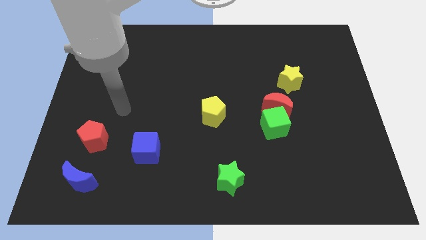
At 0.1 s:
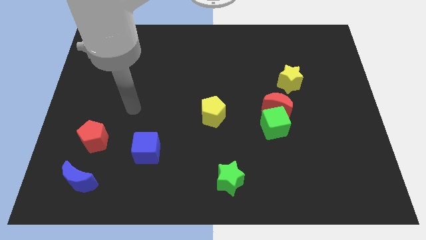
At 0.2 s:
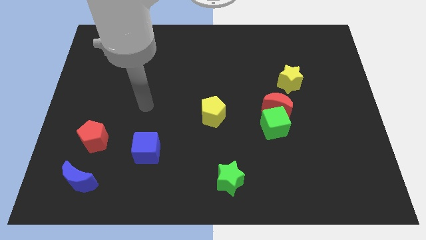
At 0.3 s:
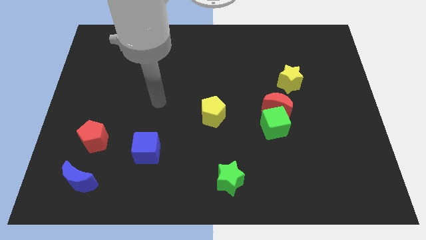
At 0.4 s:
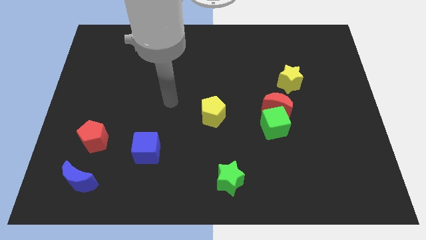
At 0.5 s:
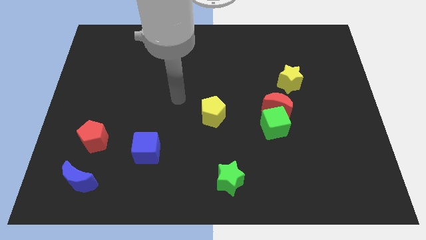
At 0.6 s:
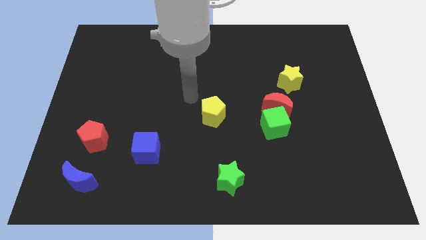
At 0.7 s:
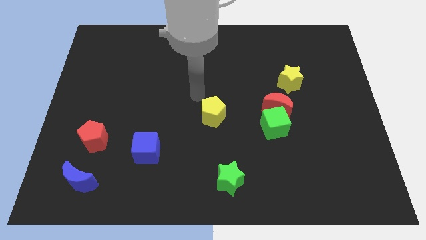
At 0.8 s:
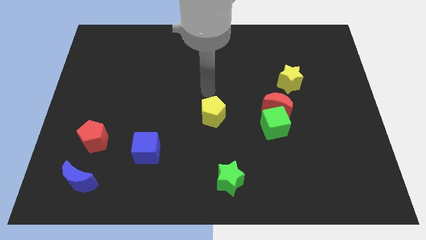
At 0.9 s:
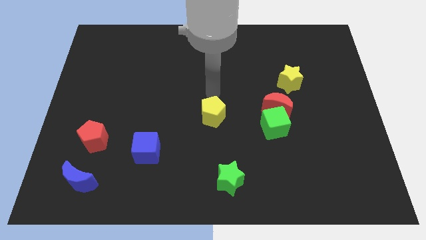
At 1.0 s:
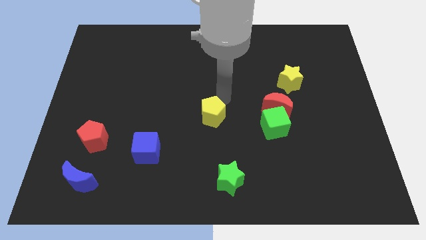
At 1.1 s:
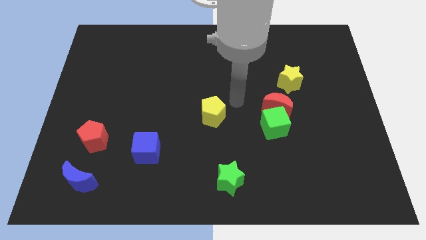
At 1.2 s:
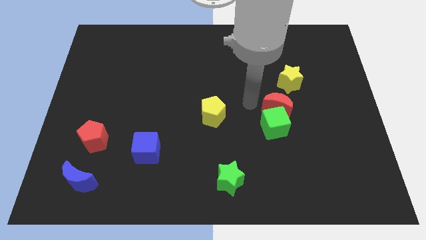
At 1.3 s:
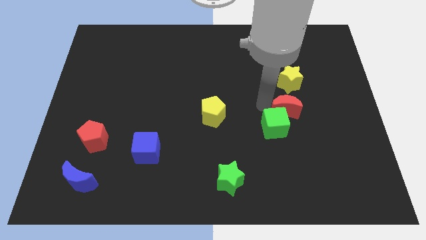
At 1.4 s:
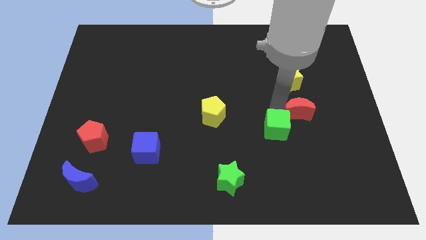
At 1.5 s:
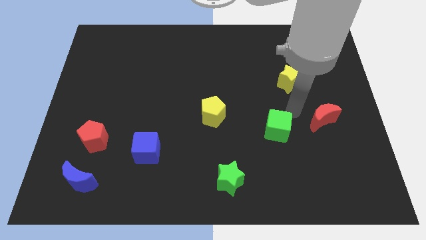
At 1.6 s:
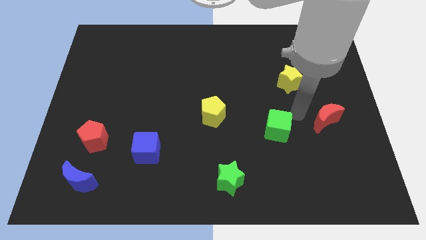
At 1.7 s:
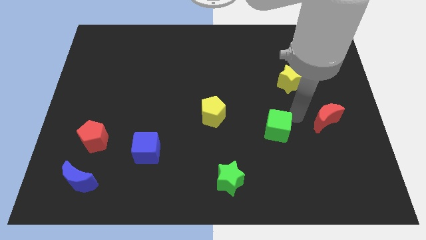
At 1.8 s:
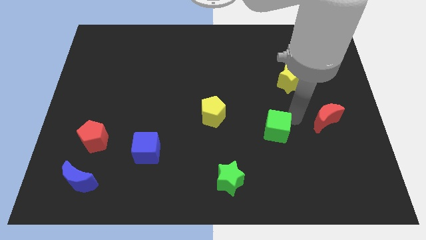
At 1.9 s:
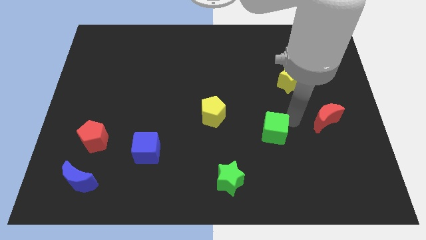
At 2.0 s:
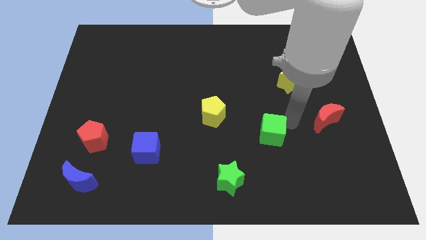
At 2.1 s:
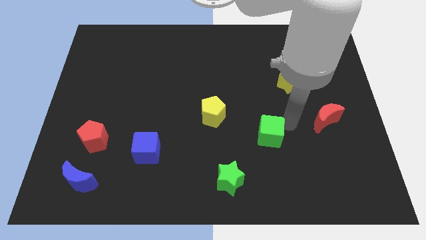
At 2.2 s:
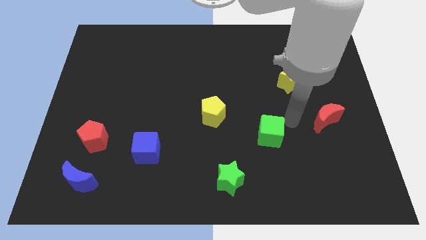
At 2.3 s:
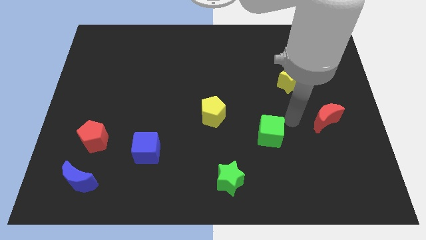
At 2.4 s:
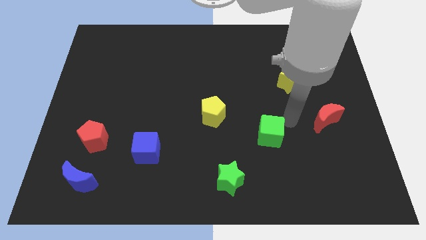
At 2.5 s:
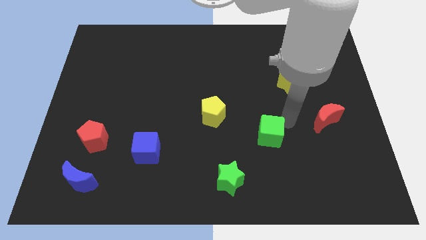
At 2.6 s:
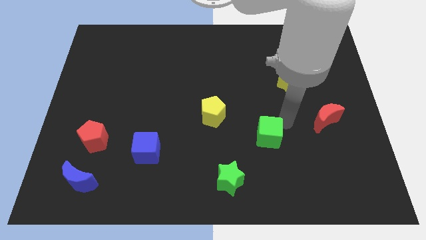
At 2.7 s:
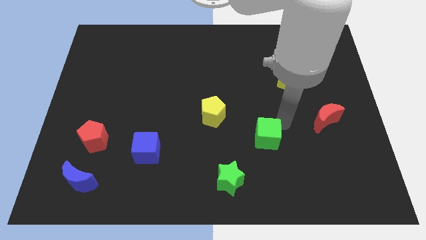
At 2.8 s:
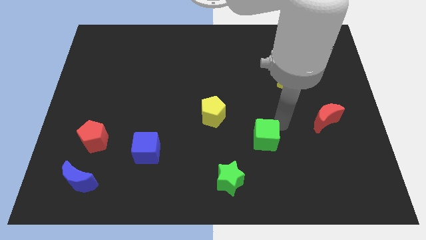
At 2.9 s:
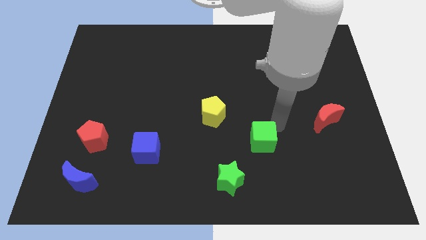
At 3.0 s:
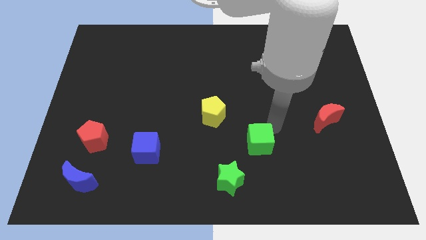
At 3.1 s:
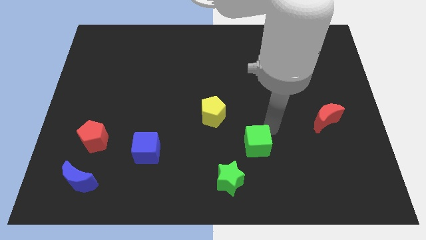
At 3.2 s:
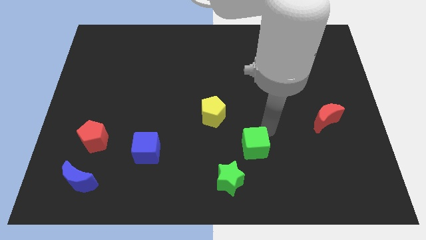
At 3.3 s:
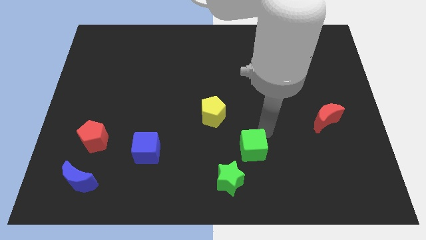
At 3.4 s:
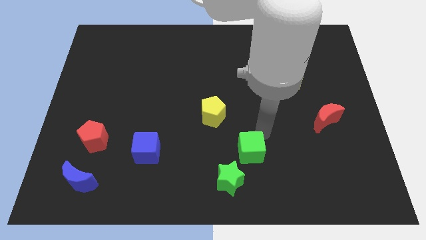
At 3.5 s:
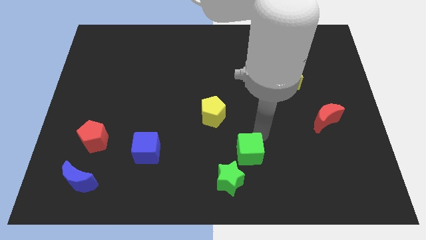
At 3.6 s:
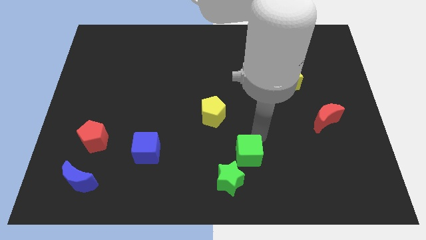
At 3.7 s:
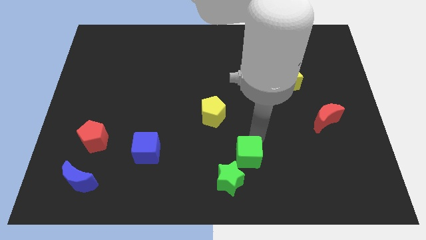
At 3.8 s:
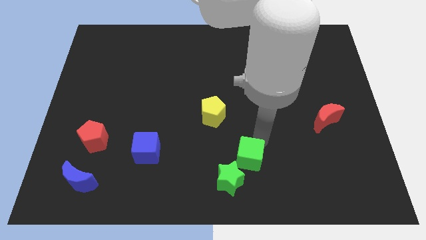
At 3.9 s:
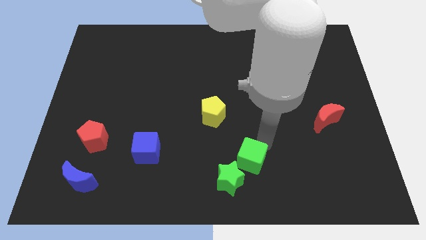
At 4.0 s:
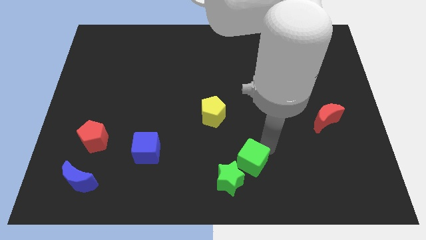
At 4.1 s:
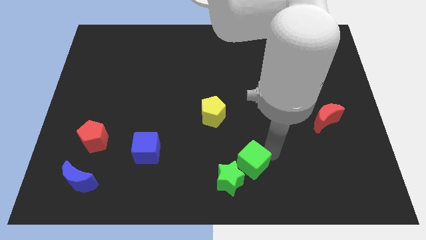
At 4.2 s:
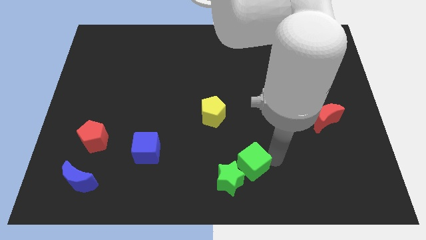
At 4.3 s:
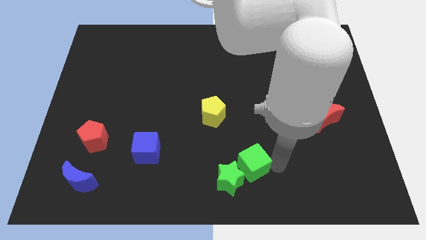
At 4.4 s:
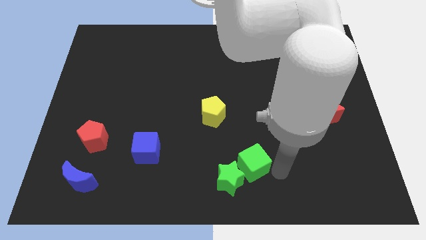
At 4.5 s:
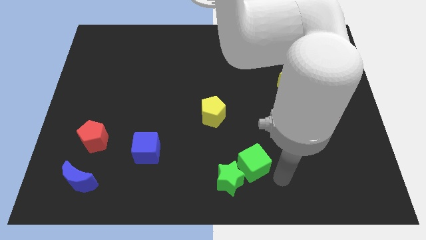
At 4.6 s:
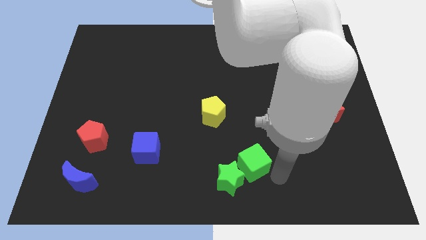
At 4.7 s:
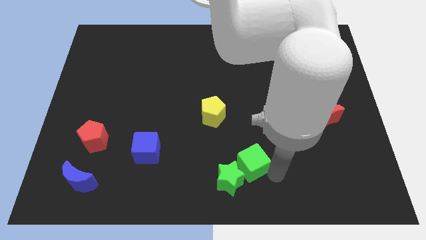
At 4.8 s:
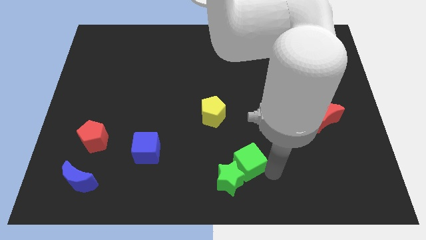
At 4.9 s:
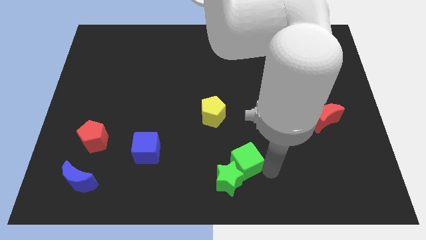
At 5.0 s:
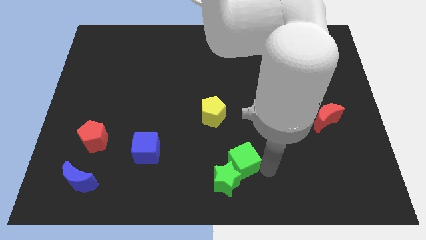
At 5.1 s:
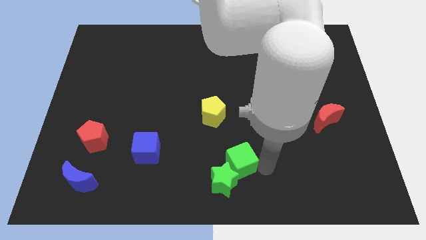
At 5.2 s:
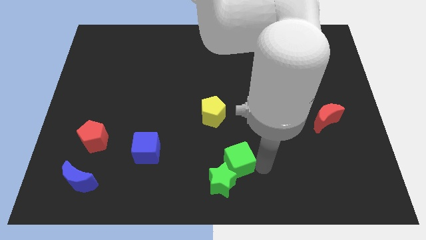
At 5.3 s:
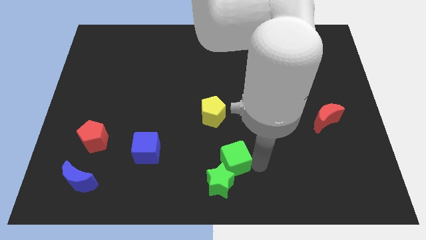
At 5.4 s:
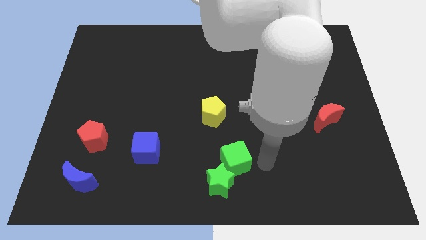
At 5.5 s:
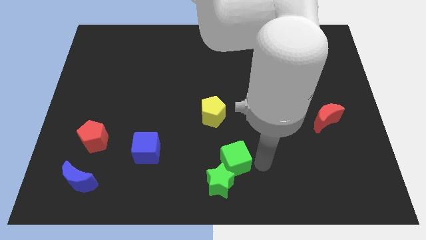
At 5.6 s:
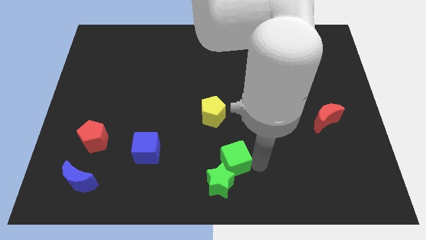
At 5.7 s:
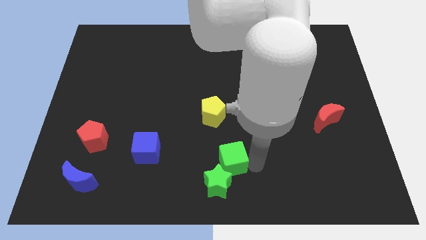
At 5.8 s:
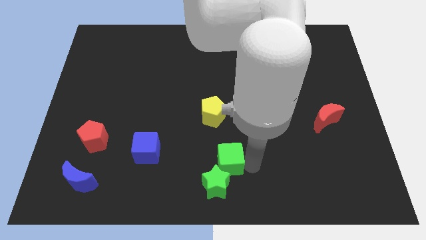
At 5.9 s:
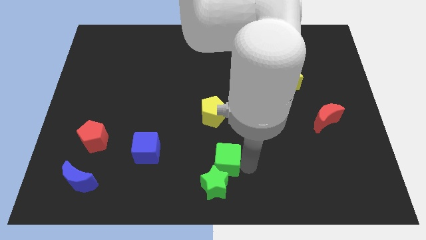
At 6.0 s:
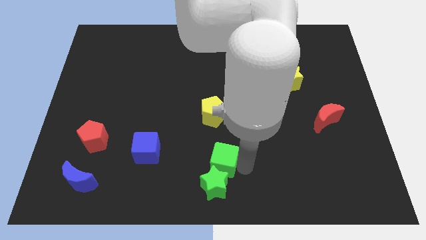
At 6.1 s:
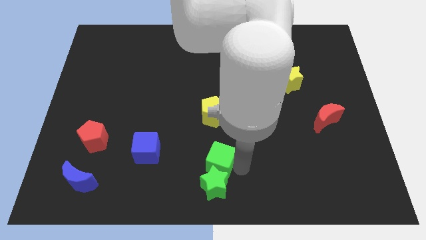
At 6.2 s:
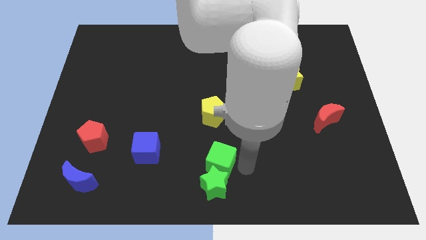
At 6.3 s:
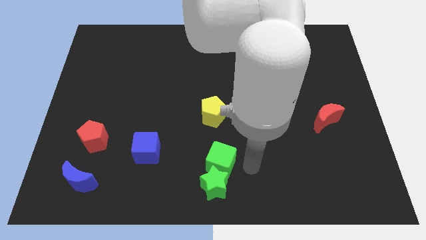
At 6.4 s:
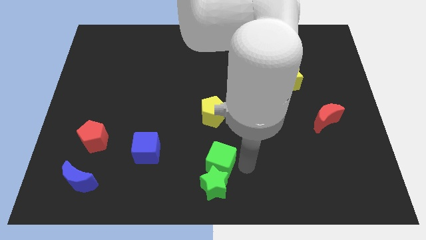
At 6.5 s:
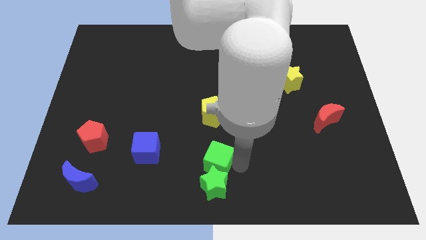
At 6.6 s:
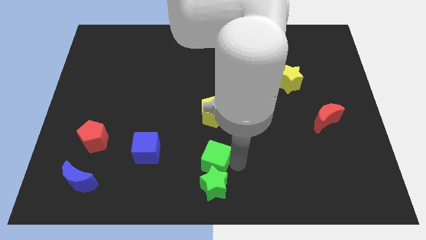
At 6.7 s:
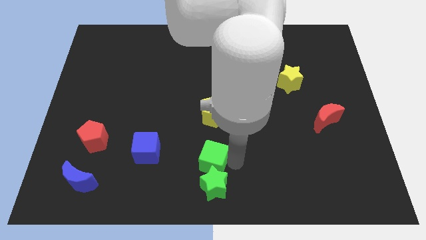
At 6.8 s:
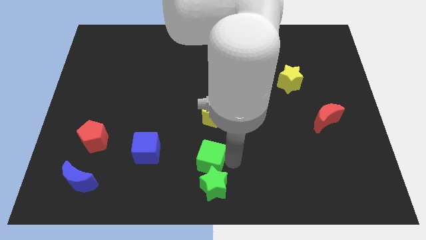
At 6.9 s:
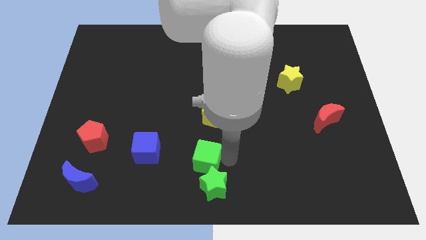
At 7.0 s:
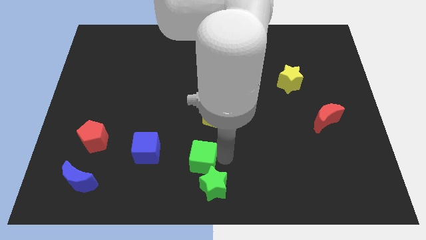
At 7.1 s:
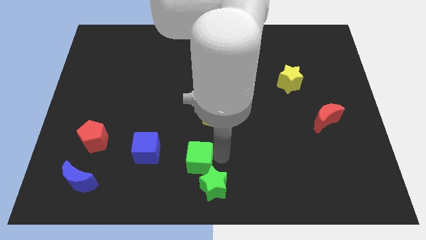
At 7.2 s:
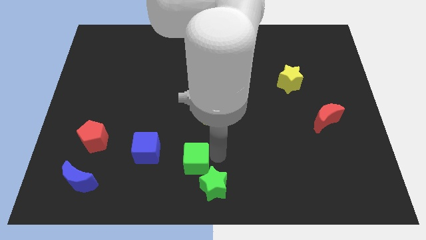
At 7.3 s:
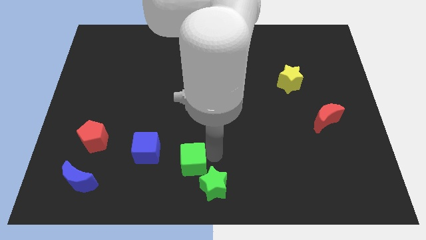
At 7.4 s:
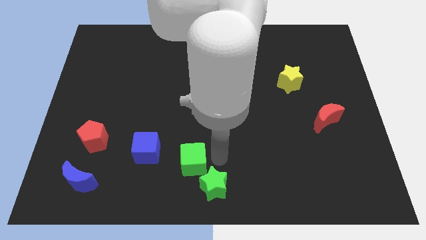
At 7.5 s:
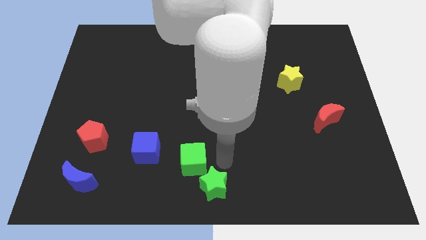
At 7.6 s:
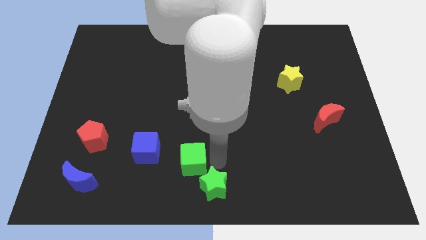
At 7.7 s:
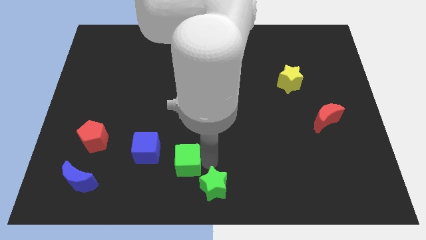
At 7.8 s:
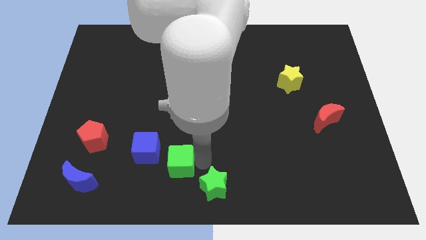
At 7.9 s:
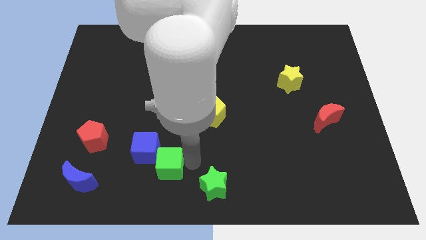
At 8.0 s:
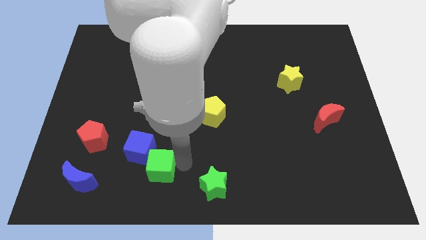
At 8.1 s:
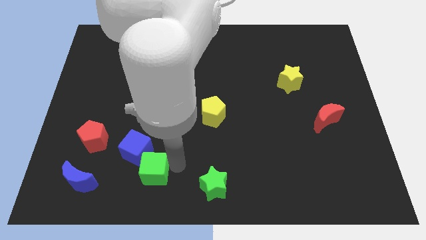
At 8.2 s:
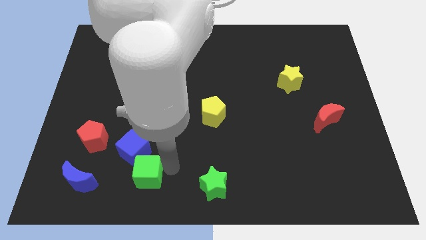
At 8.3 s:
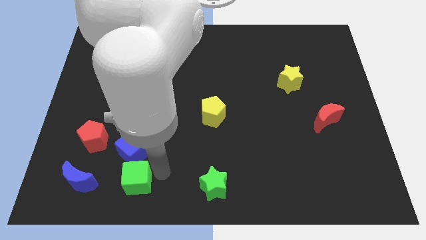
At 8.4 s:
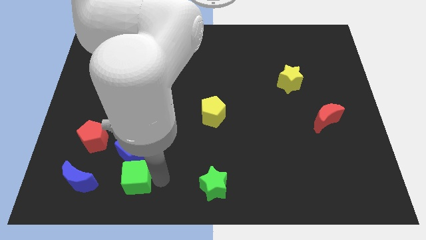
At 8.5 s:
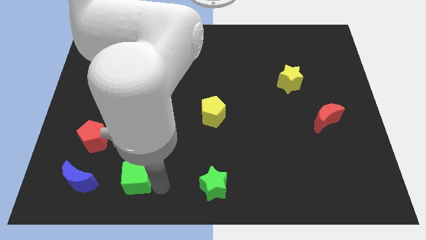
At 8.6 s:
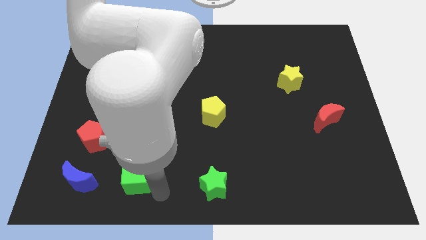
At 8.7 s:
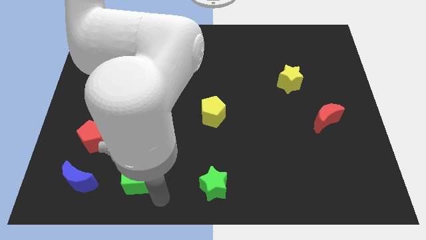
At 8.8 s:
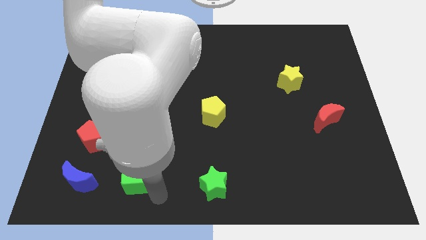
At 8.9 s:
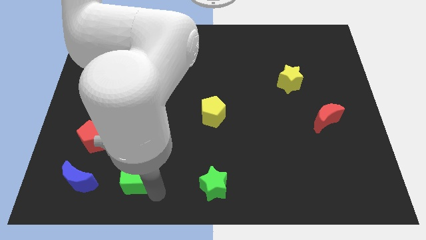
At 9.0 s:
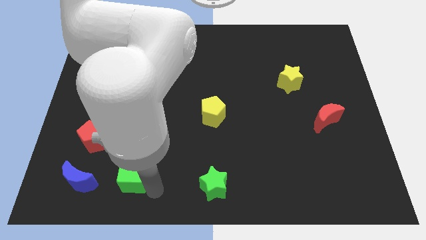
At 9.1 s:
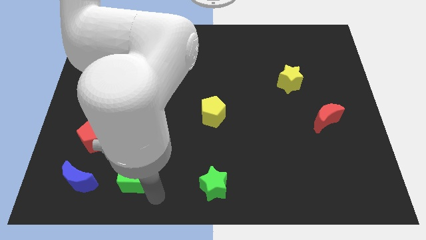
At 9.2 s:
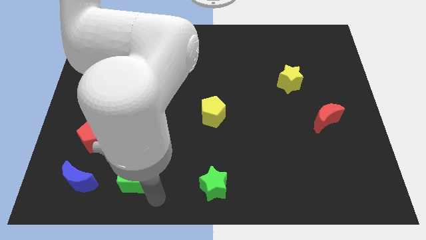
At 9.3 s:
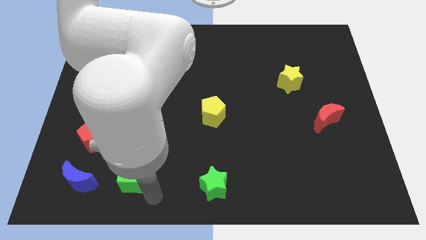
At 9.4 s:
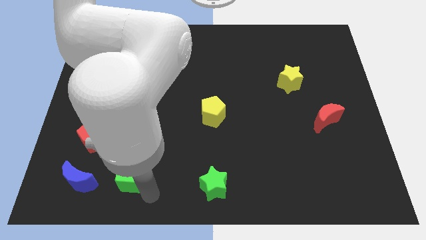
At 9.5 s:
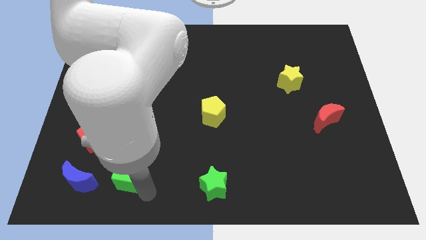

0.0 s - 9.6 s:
slide the green cube to the bottom right of the red pentagon
